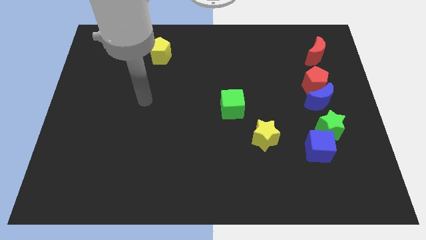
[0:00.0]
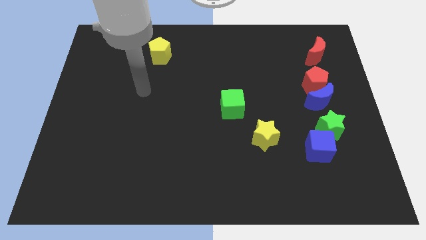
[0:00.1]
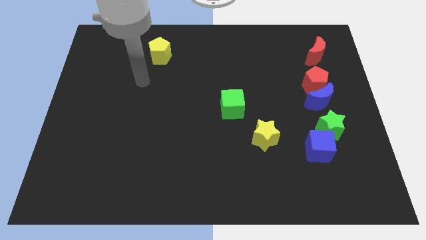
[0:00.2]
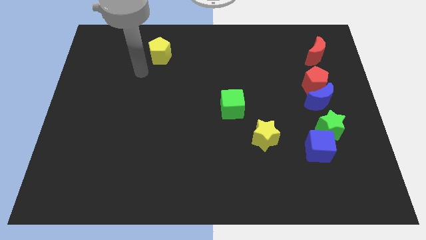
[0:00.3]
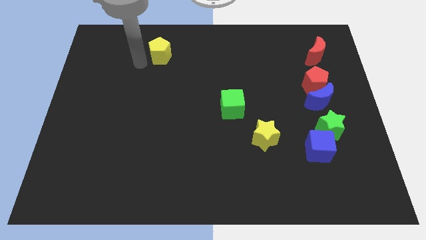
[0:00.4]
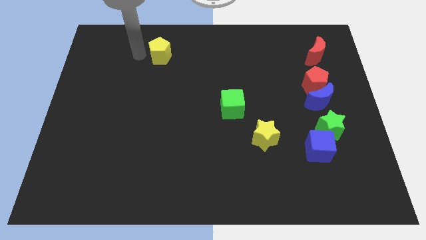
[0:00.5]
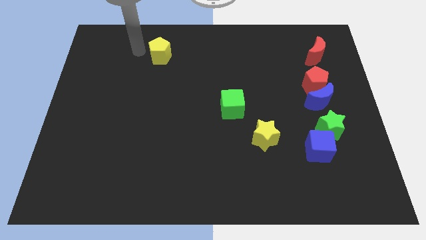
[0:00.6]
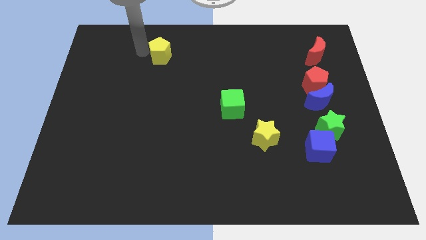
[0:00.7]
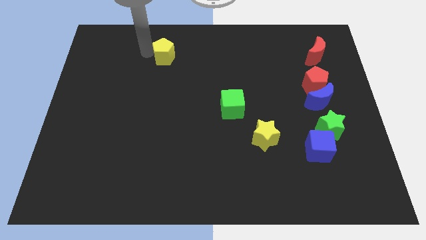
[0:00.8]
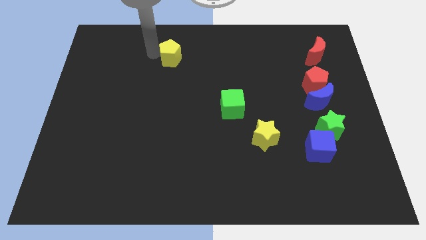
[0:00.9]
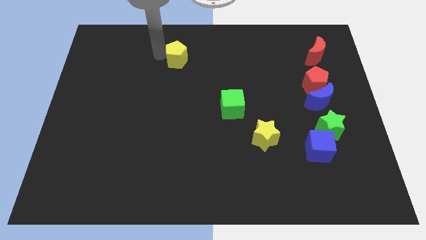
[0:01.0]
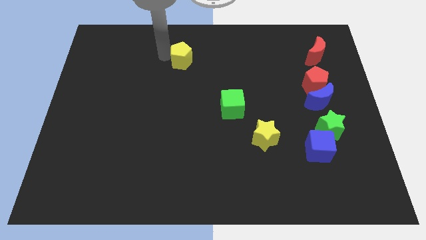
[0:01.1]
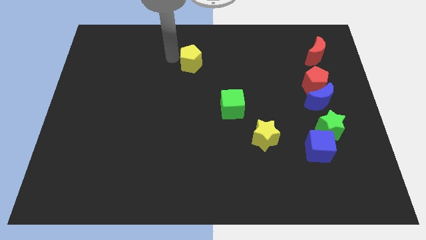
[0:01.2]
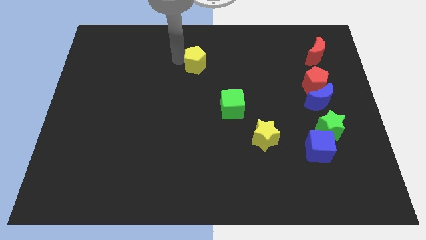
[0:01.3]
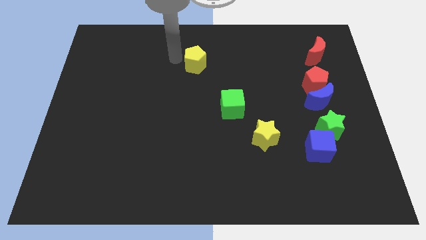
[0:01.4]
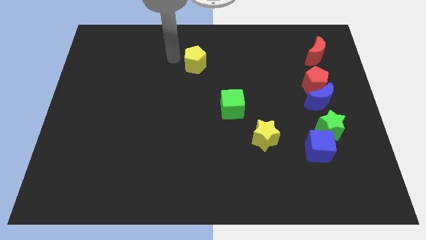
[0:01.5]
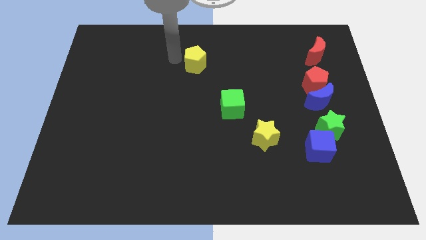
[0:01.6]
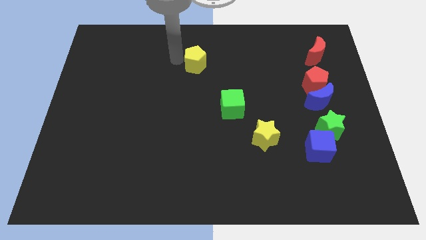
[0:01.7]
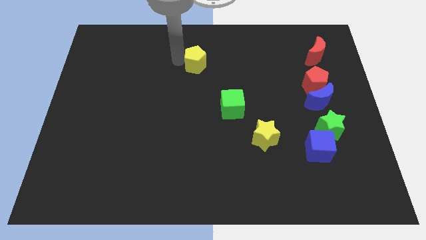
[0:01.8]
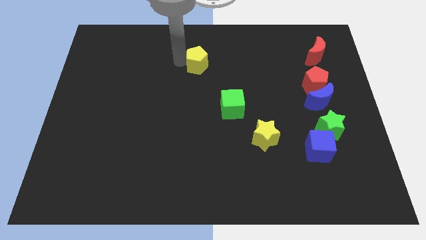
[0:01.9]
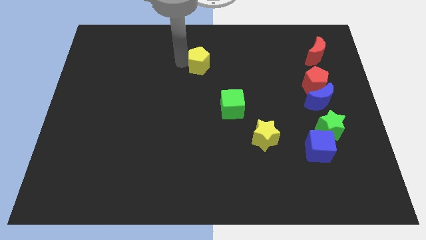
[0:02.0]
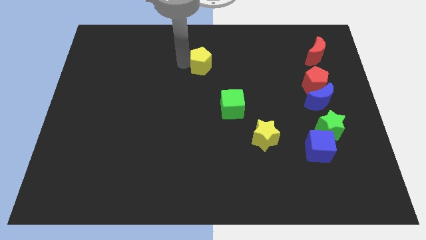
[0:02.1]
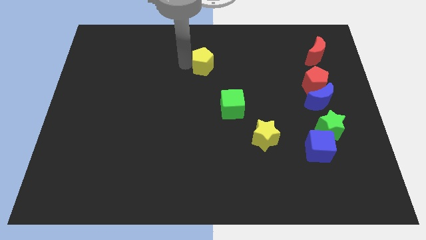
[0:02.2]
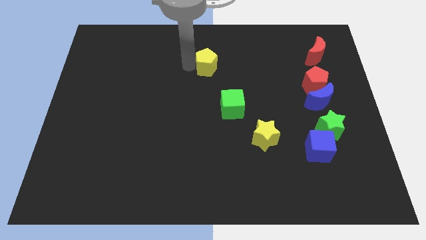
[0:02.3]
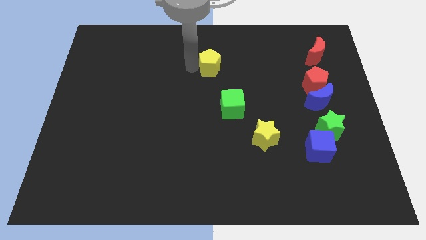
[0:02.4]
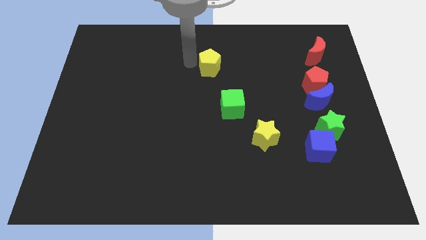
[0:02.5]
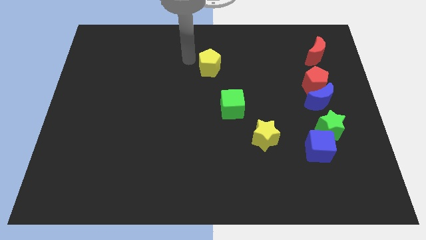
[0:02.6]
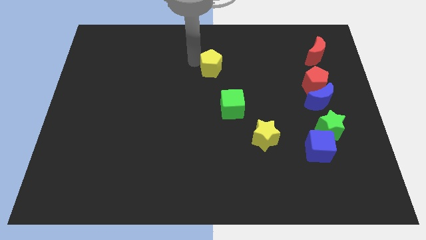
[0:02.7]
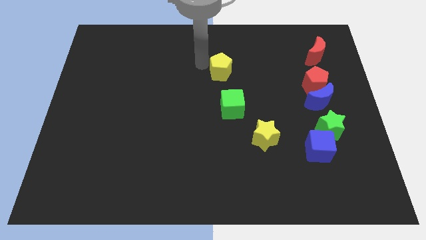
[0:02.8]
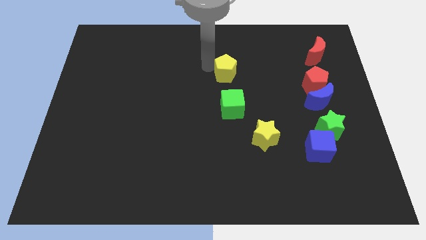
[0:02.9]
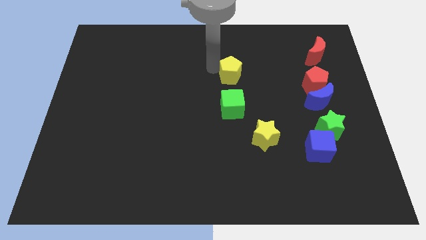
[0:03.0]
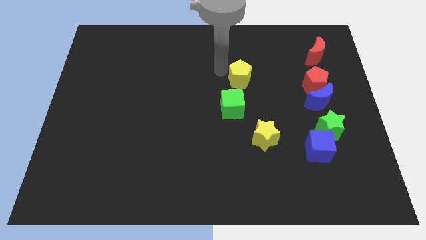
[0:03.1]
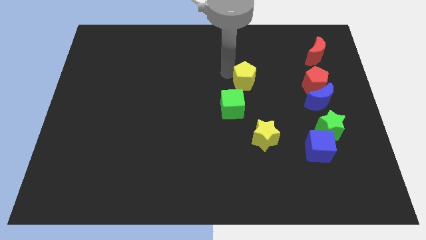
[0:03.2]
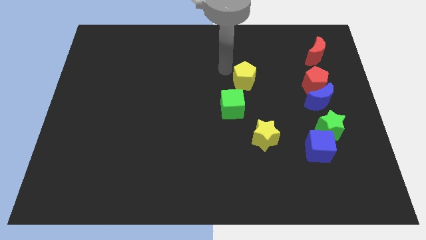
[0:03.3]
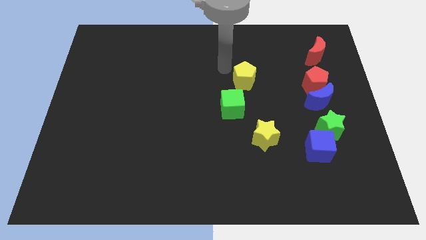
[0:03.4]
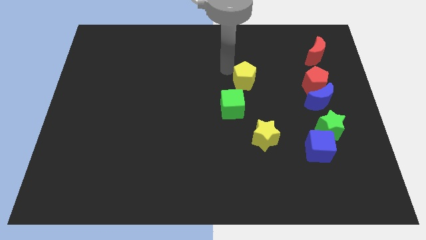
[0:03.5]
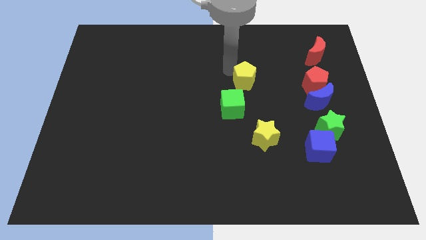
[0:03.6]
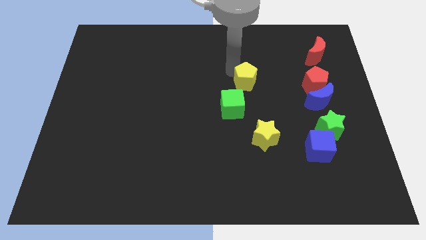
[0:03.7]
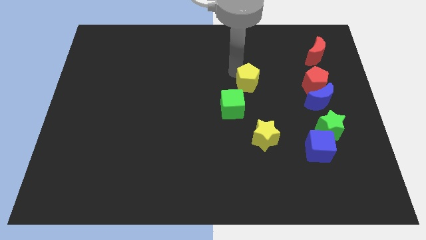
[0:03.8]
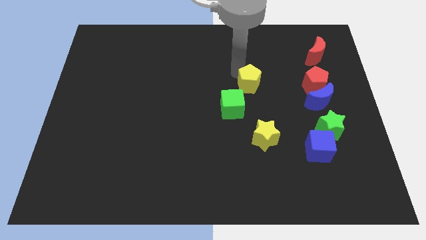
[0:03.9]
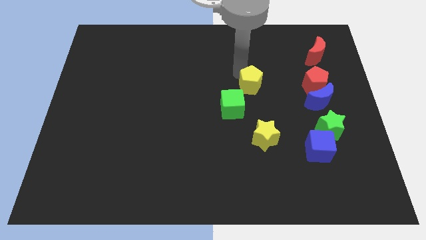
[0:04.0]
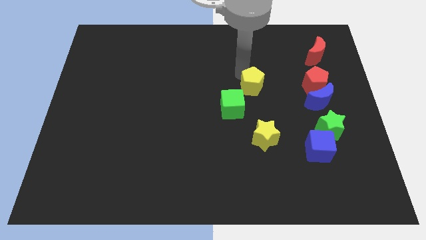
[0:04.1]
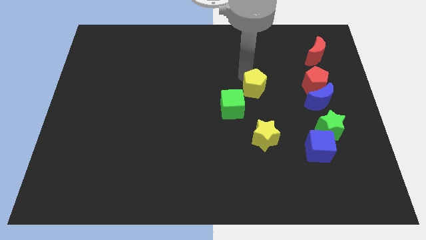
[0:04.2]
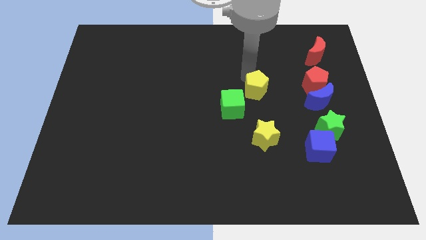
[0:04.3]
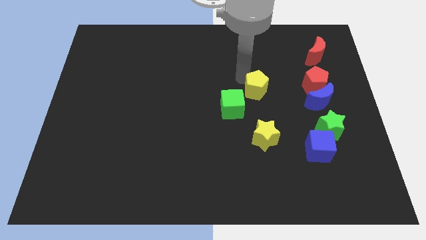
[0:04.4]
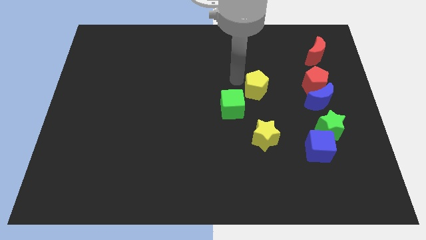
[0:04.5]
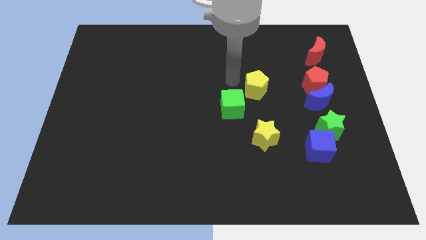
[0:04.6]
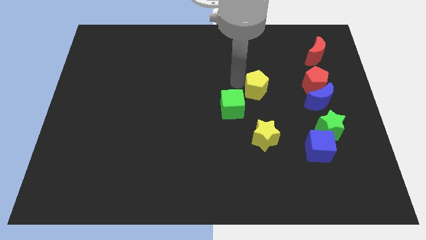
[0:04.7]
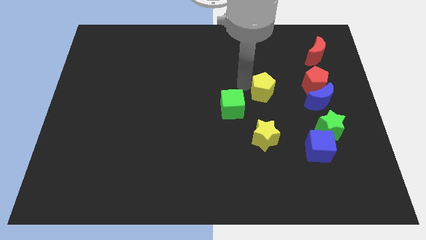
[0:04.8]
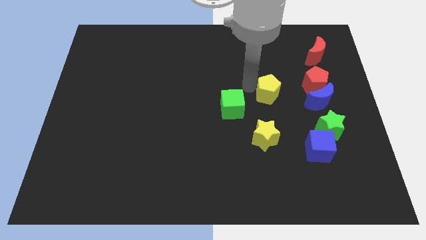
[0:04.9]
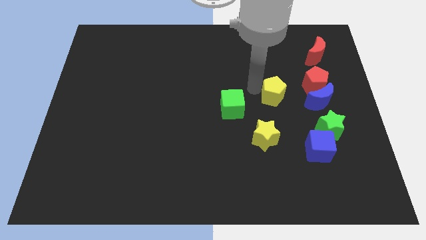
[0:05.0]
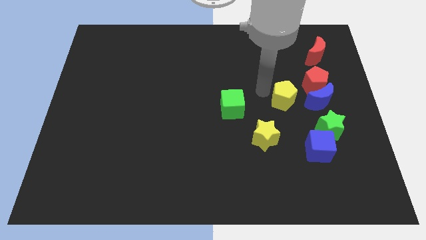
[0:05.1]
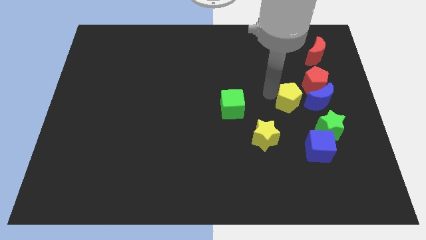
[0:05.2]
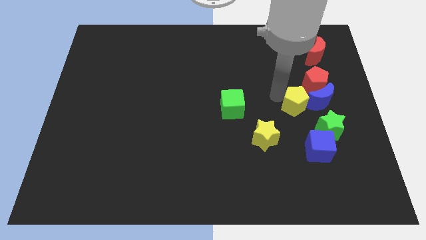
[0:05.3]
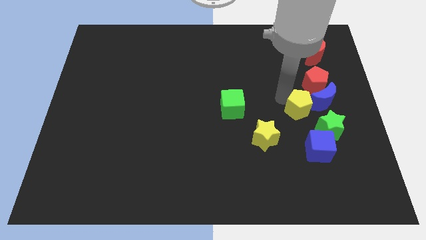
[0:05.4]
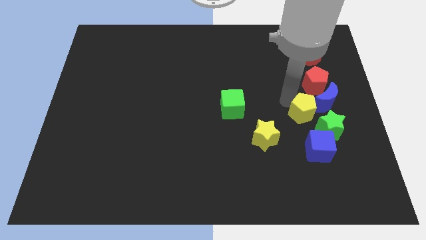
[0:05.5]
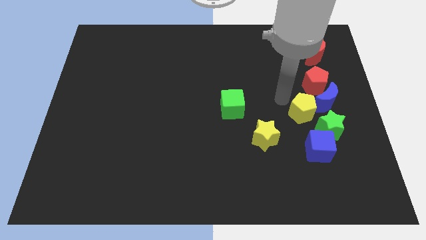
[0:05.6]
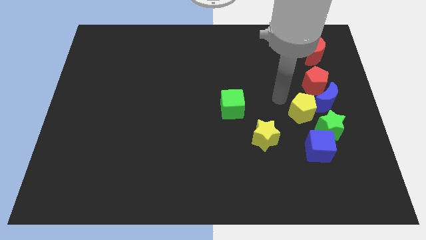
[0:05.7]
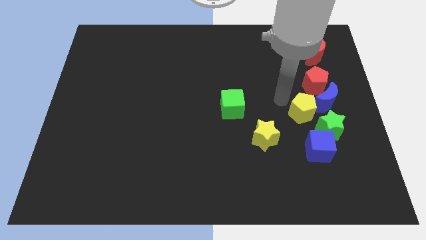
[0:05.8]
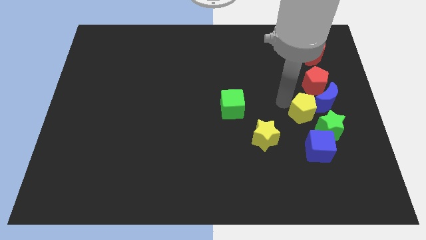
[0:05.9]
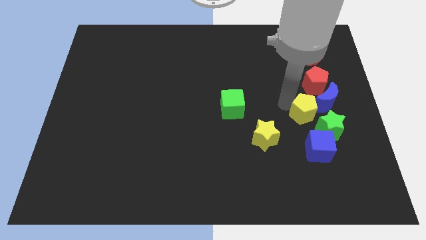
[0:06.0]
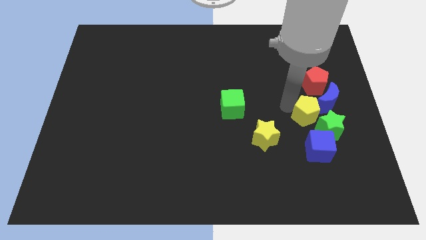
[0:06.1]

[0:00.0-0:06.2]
slide the yellow pentagon to the green star

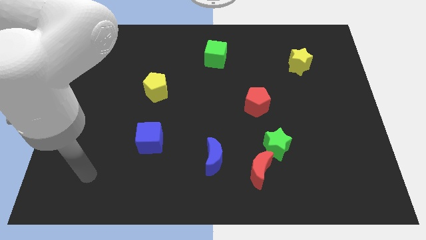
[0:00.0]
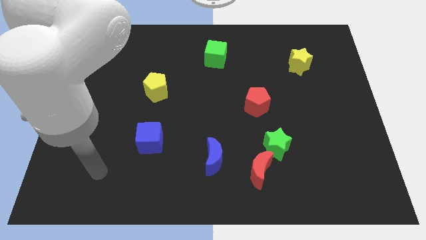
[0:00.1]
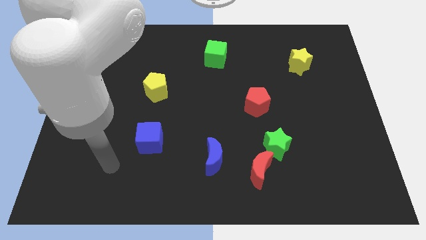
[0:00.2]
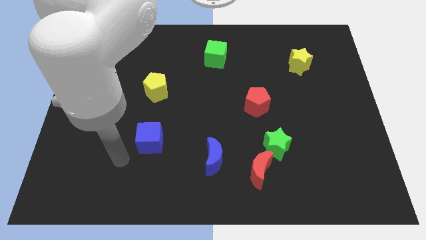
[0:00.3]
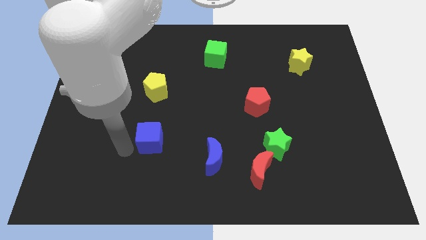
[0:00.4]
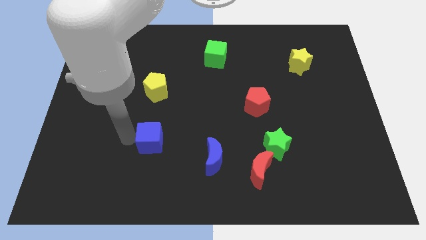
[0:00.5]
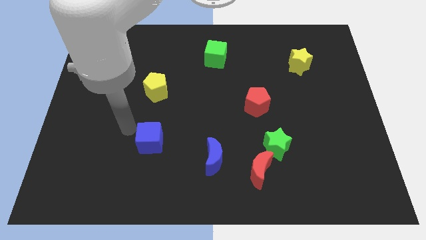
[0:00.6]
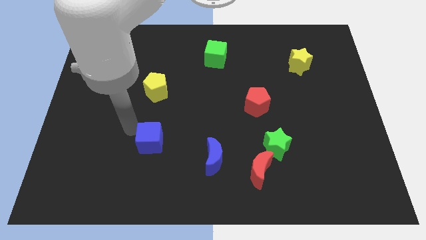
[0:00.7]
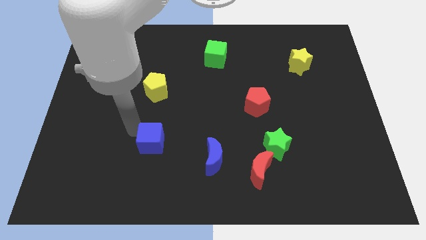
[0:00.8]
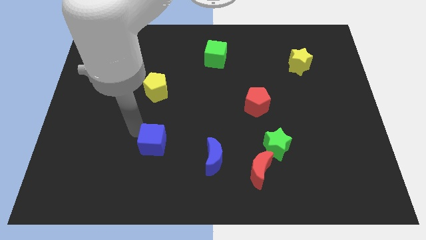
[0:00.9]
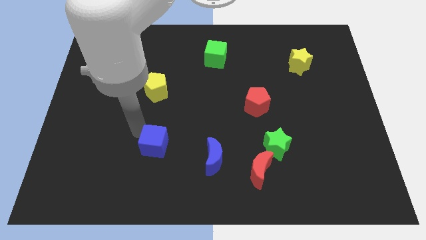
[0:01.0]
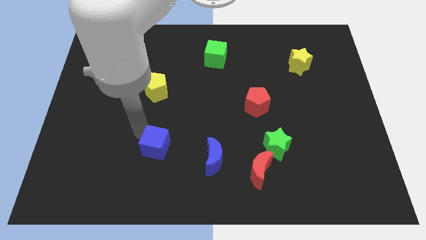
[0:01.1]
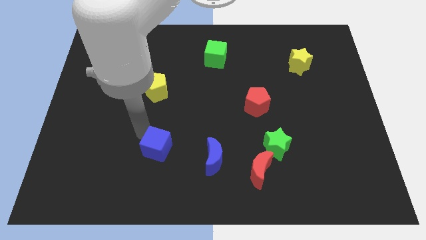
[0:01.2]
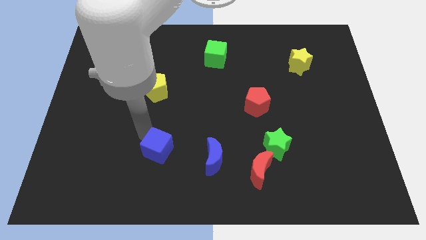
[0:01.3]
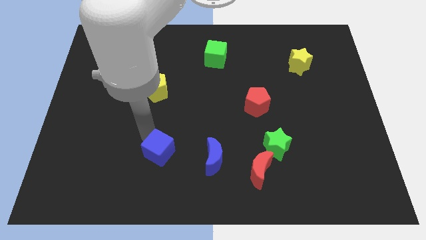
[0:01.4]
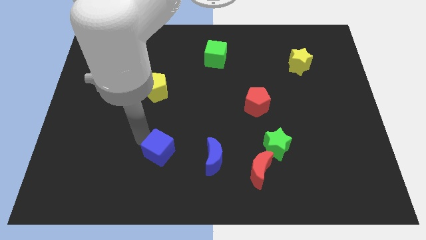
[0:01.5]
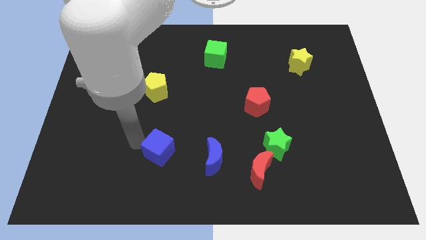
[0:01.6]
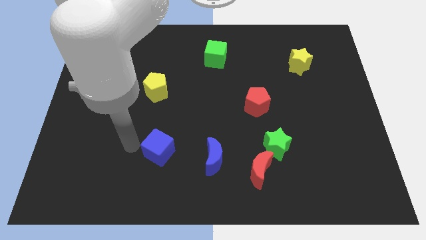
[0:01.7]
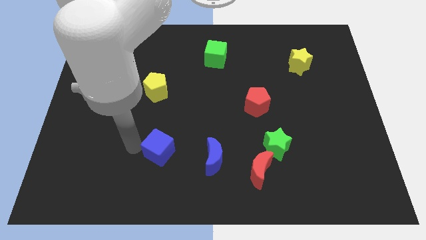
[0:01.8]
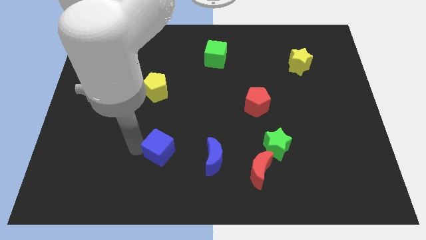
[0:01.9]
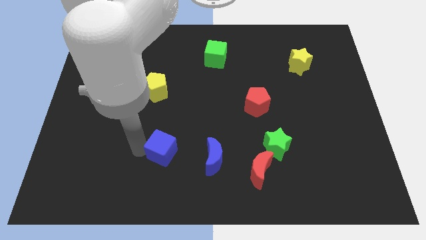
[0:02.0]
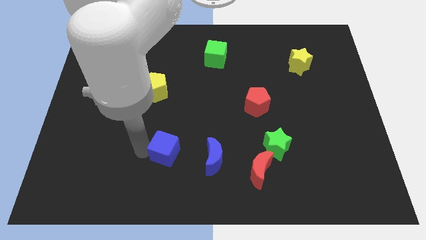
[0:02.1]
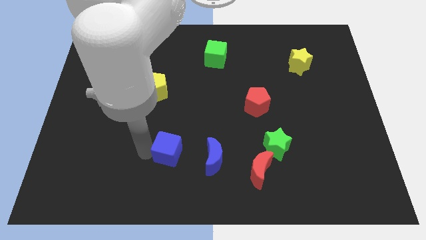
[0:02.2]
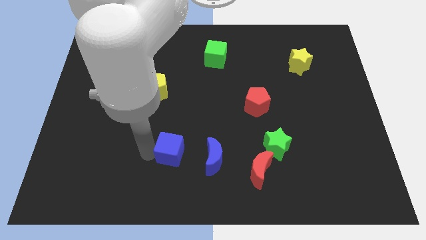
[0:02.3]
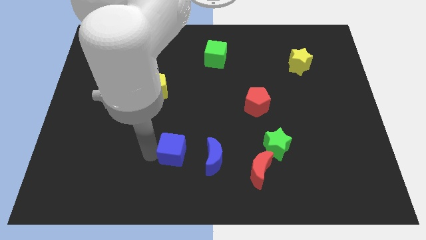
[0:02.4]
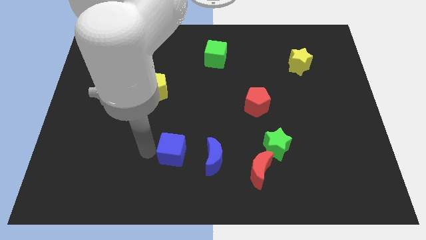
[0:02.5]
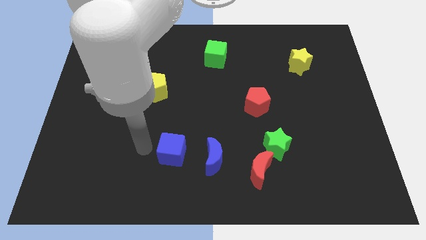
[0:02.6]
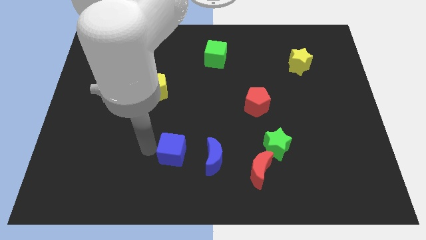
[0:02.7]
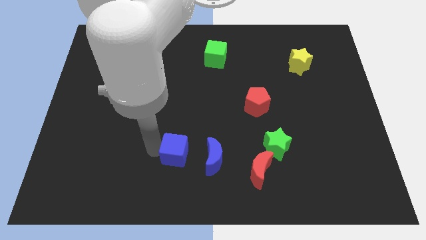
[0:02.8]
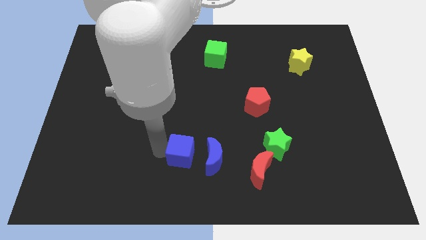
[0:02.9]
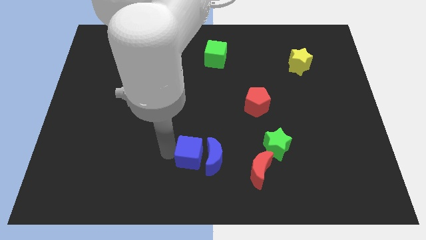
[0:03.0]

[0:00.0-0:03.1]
push the blue cube to the blue moon
